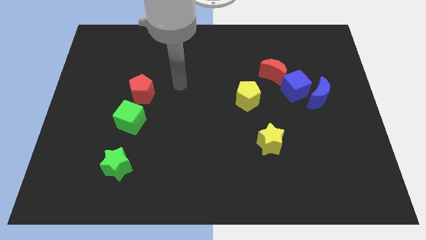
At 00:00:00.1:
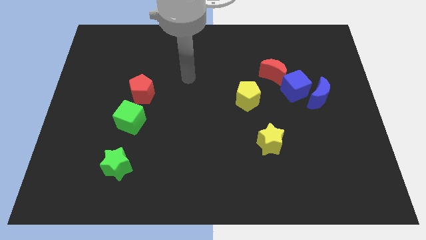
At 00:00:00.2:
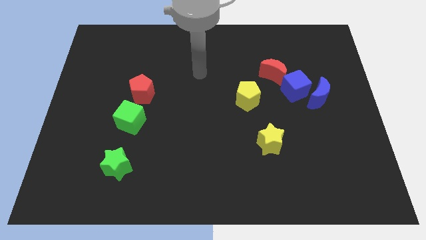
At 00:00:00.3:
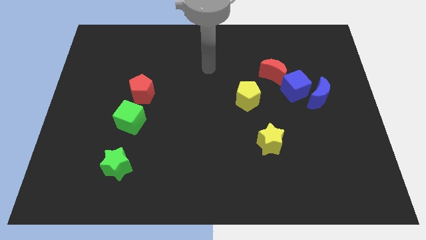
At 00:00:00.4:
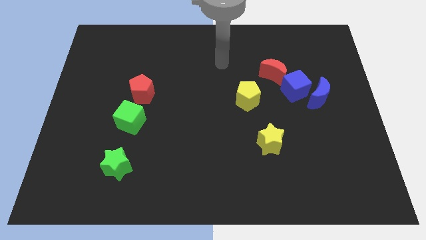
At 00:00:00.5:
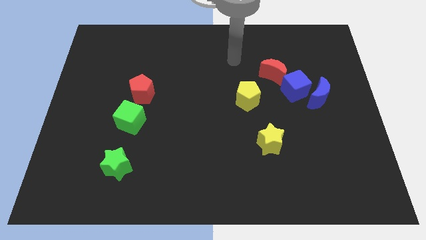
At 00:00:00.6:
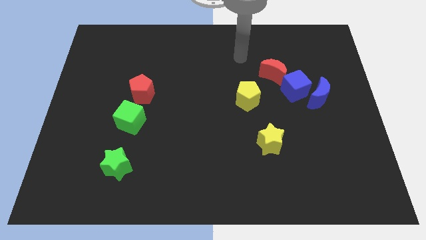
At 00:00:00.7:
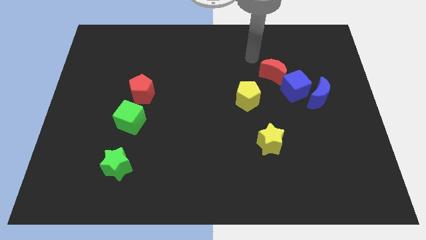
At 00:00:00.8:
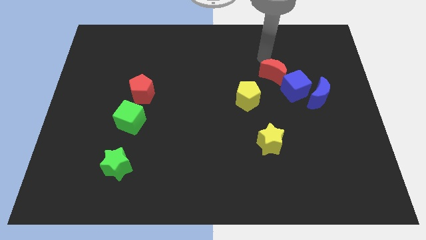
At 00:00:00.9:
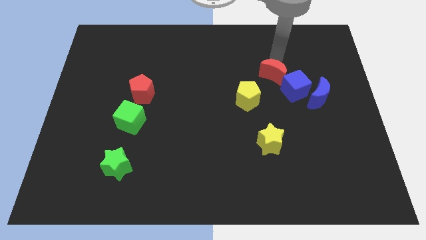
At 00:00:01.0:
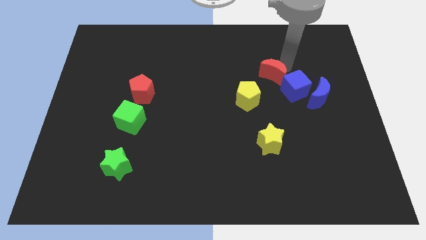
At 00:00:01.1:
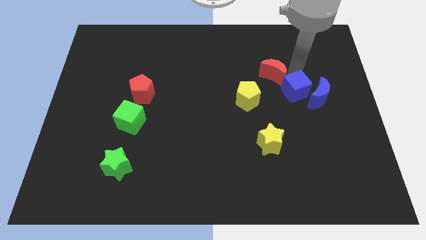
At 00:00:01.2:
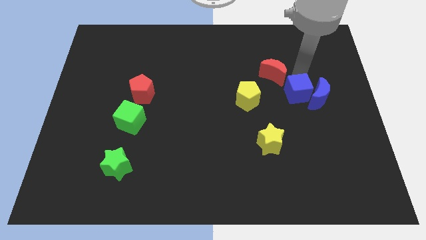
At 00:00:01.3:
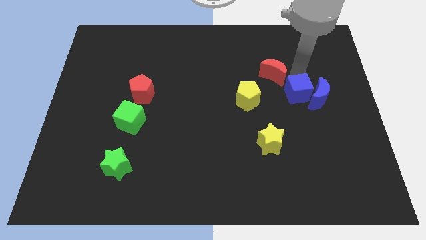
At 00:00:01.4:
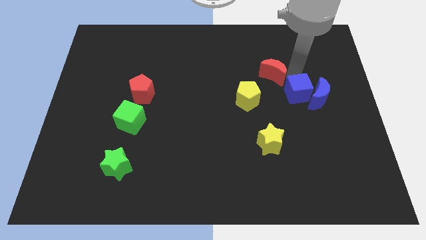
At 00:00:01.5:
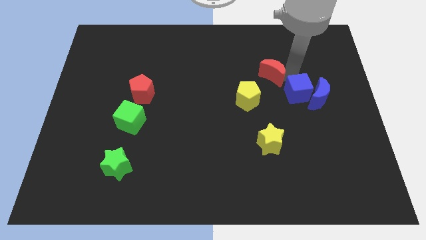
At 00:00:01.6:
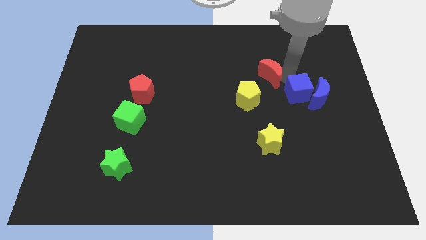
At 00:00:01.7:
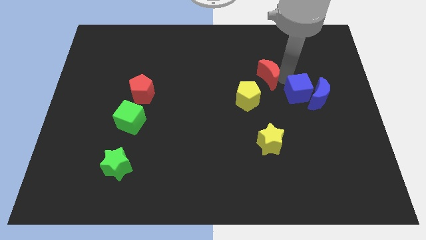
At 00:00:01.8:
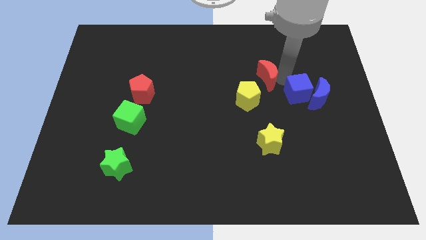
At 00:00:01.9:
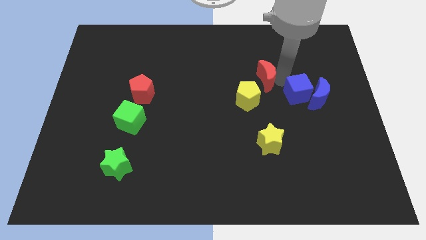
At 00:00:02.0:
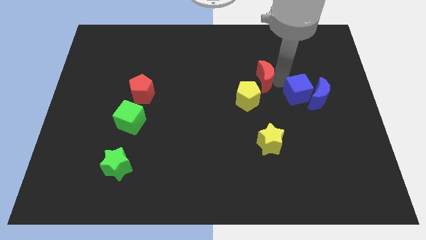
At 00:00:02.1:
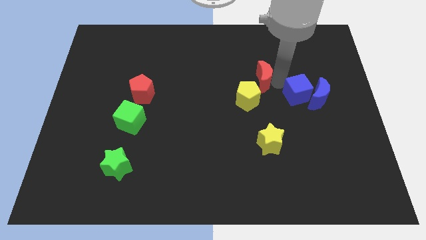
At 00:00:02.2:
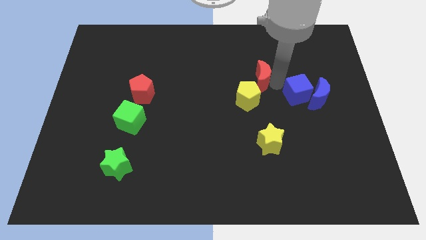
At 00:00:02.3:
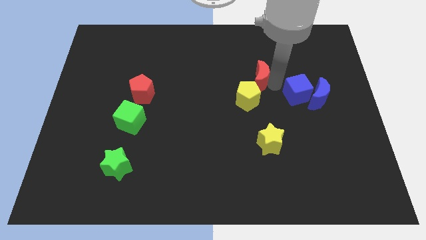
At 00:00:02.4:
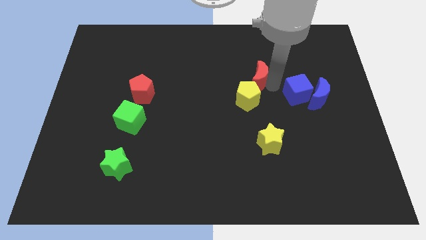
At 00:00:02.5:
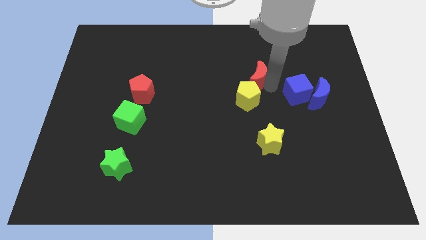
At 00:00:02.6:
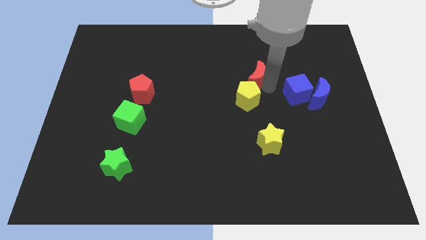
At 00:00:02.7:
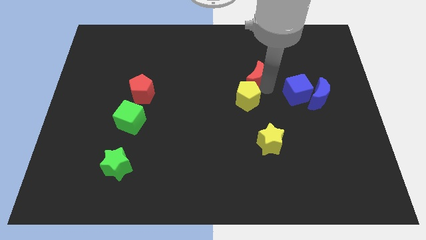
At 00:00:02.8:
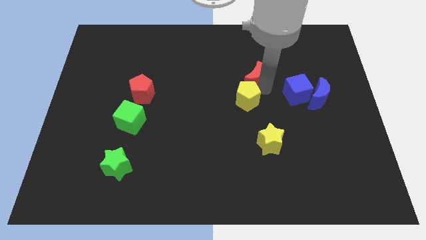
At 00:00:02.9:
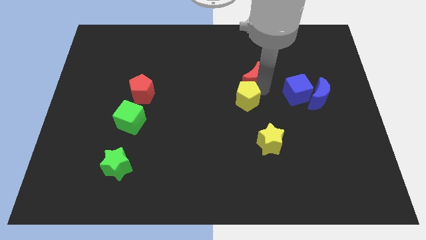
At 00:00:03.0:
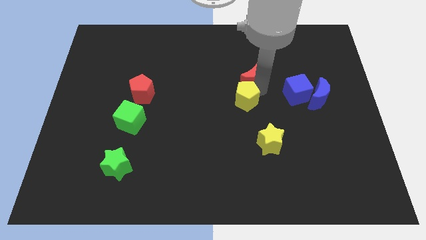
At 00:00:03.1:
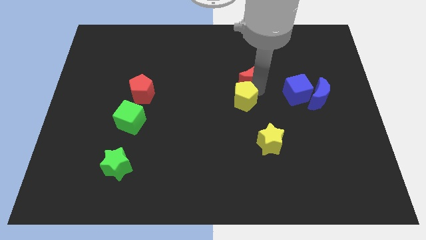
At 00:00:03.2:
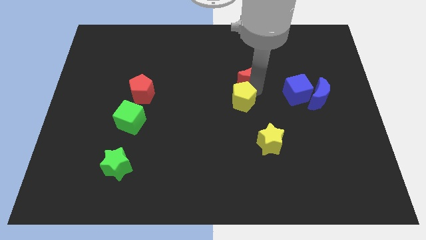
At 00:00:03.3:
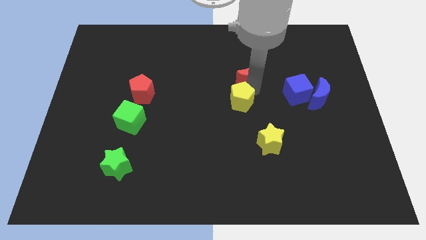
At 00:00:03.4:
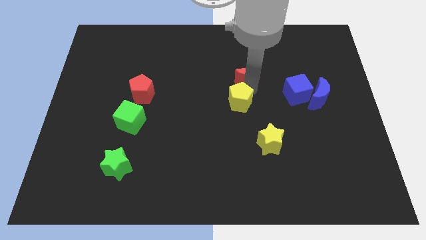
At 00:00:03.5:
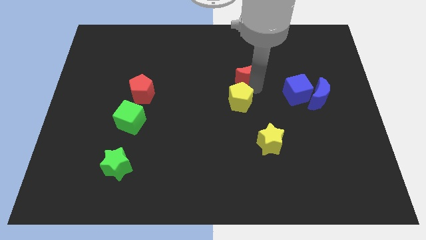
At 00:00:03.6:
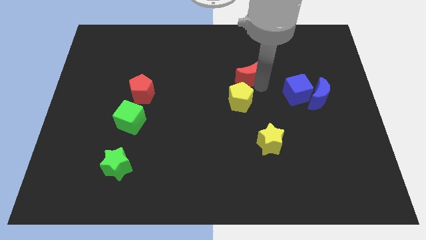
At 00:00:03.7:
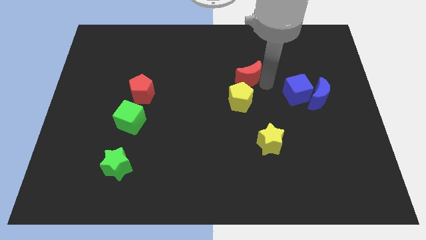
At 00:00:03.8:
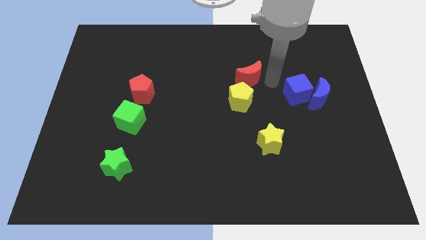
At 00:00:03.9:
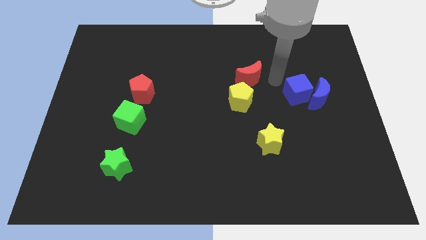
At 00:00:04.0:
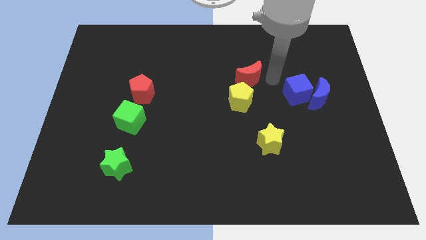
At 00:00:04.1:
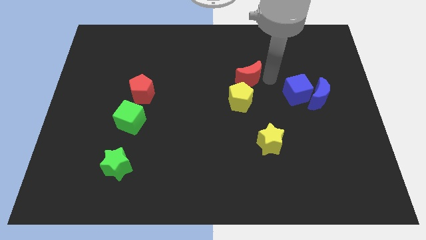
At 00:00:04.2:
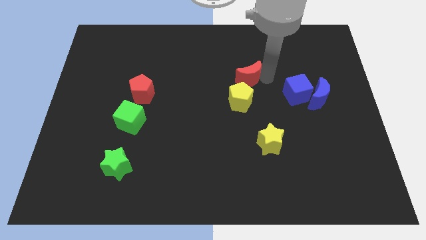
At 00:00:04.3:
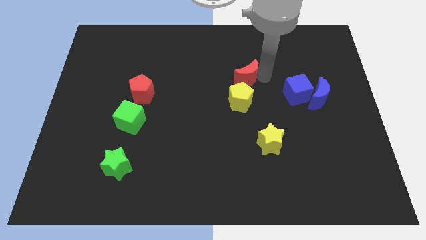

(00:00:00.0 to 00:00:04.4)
slightly push the red moon to the left

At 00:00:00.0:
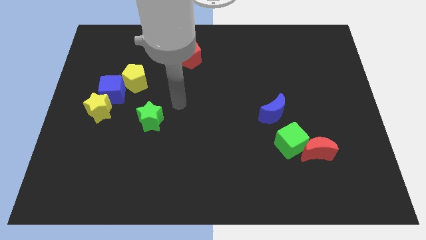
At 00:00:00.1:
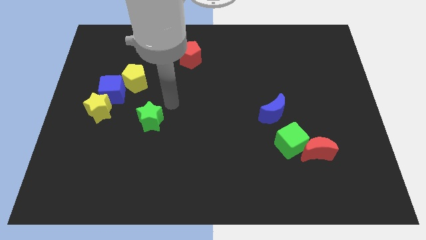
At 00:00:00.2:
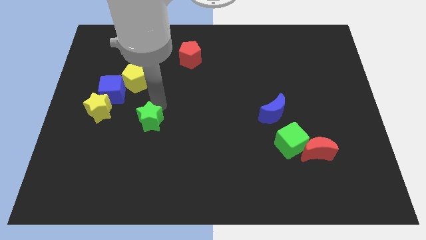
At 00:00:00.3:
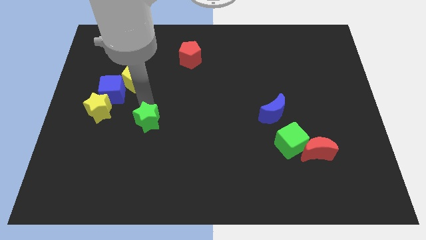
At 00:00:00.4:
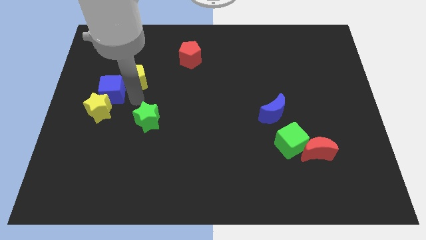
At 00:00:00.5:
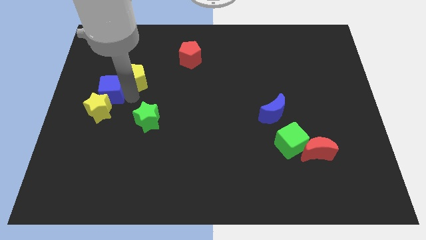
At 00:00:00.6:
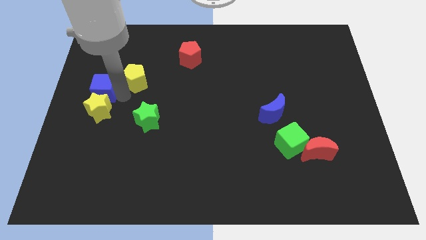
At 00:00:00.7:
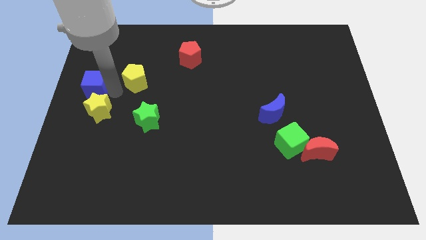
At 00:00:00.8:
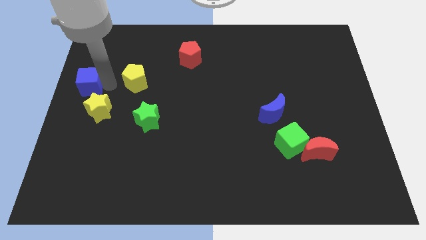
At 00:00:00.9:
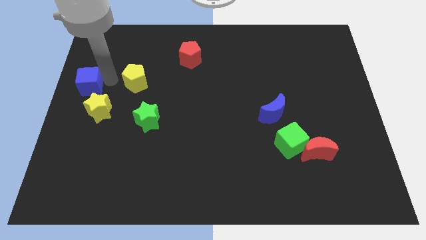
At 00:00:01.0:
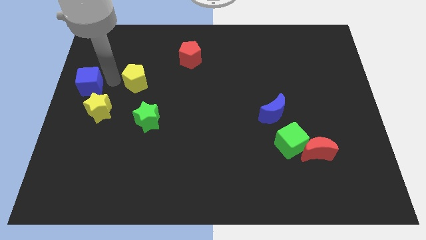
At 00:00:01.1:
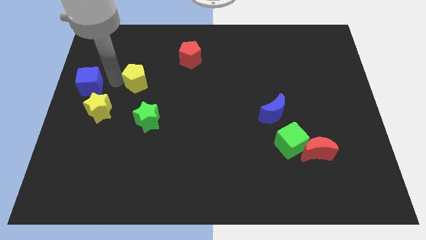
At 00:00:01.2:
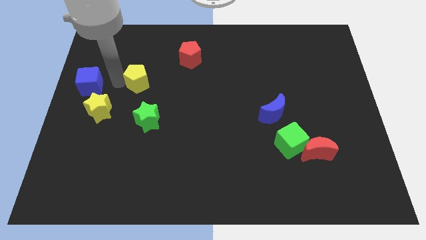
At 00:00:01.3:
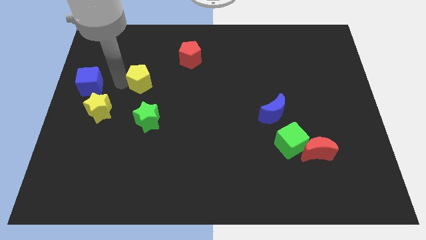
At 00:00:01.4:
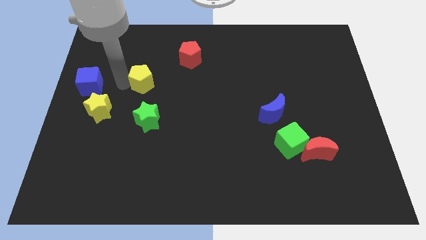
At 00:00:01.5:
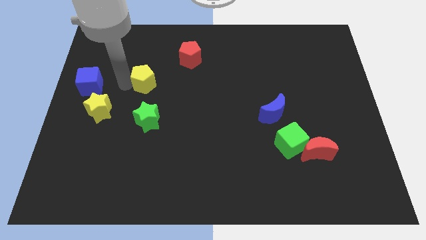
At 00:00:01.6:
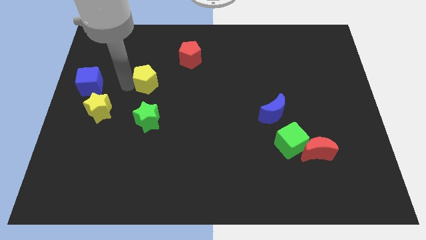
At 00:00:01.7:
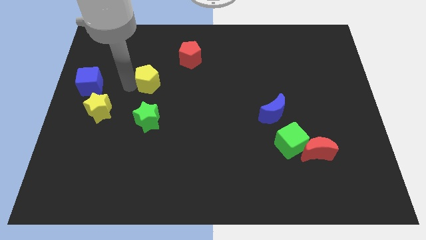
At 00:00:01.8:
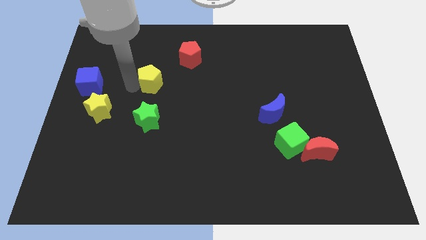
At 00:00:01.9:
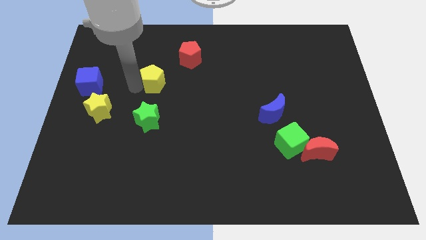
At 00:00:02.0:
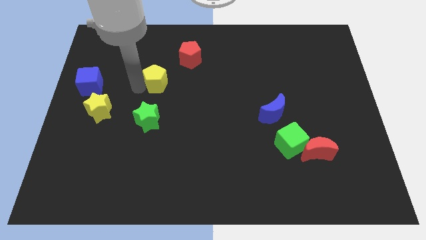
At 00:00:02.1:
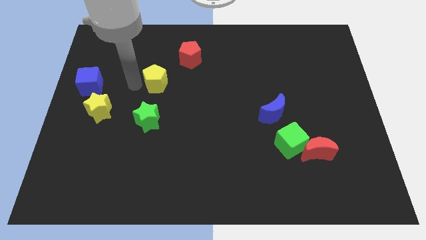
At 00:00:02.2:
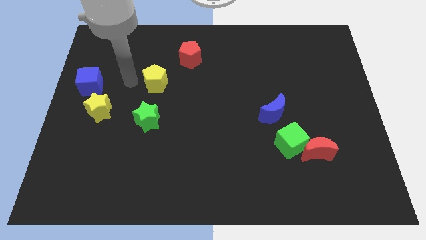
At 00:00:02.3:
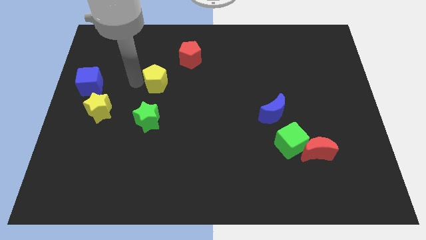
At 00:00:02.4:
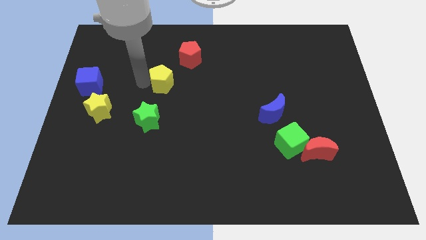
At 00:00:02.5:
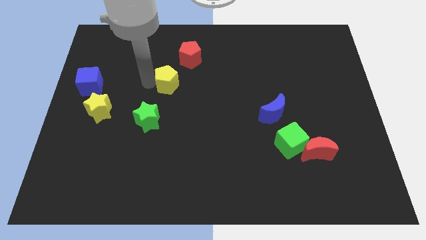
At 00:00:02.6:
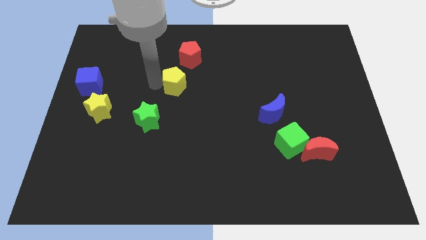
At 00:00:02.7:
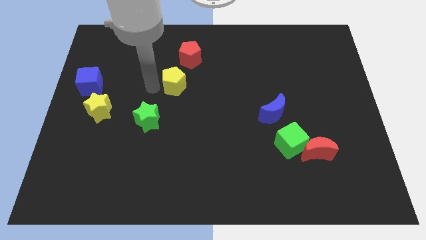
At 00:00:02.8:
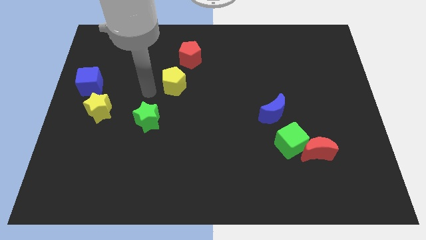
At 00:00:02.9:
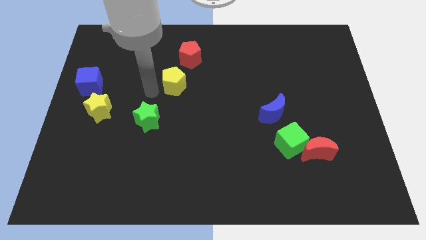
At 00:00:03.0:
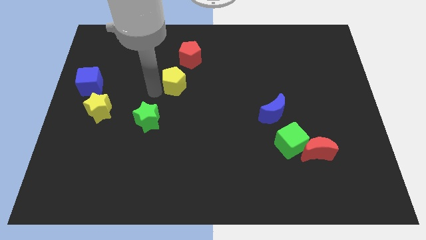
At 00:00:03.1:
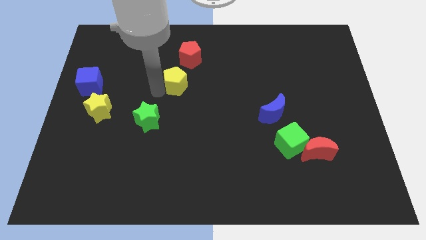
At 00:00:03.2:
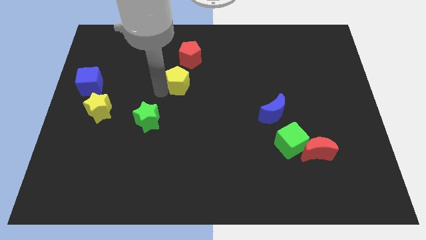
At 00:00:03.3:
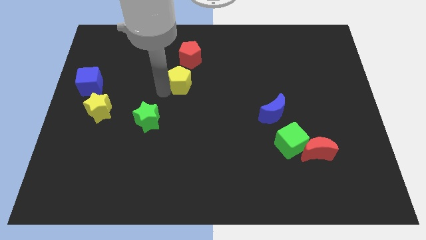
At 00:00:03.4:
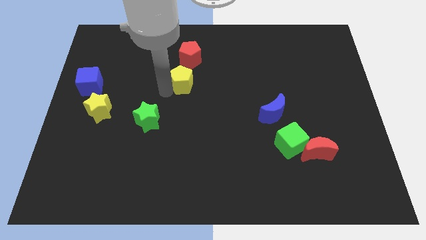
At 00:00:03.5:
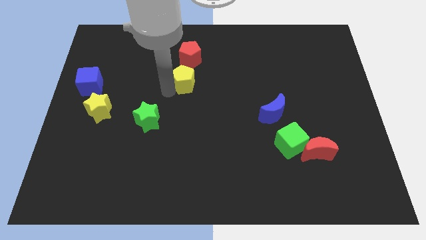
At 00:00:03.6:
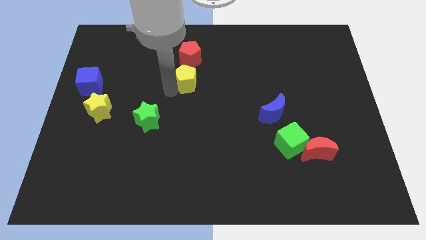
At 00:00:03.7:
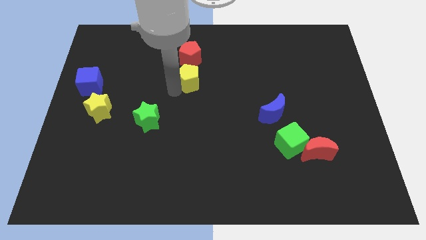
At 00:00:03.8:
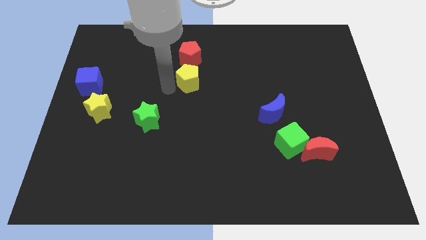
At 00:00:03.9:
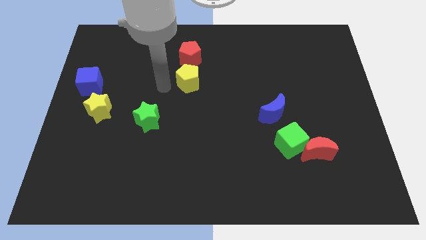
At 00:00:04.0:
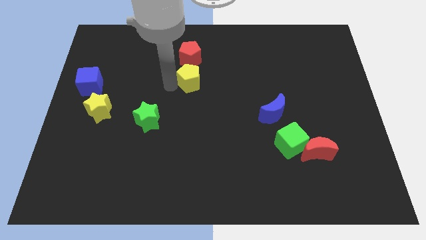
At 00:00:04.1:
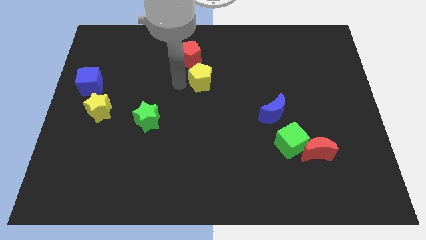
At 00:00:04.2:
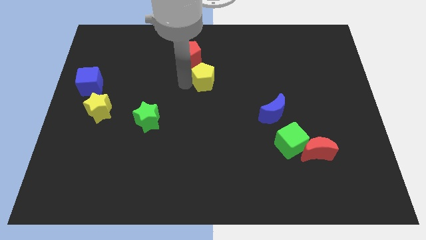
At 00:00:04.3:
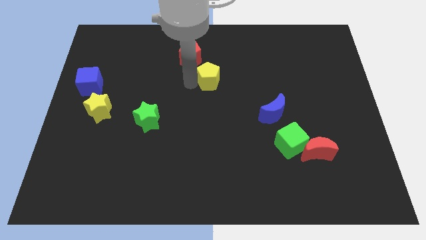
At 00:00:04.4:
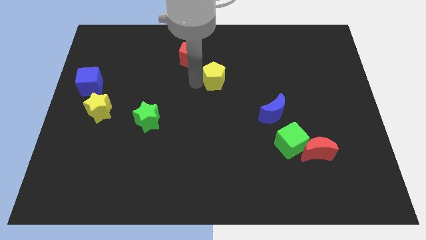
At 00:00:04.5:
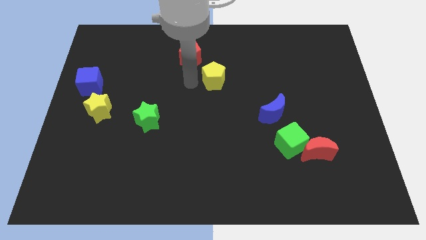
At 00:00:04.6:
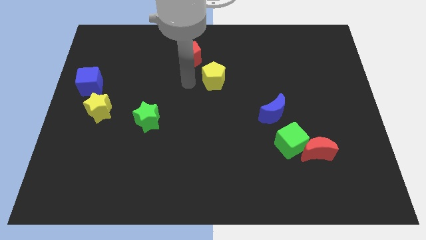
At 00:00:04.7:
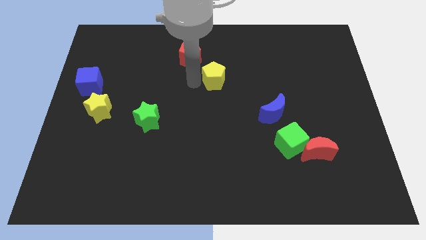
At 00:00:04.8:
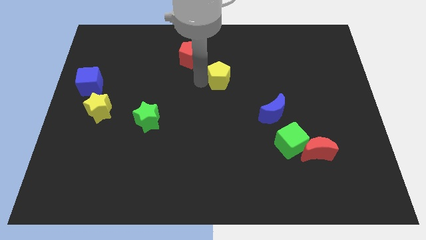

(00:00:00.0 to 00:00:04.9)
move the yellow pentagon right
